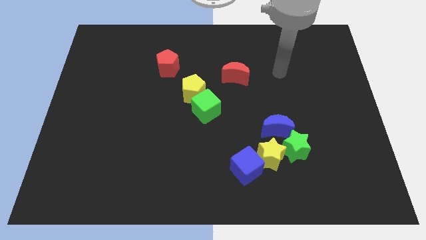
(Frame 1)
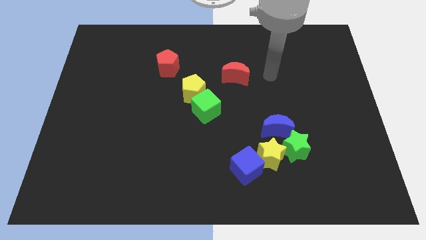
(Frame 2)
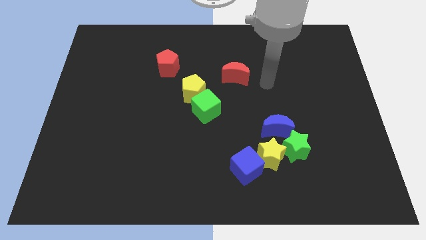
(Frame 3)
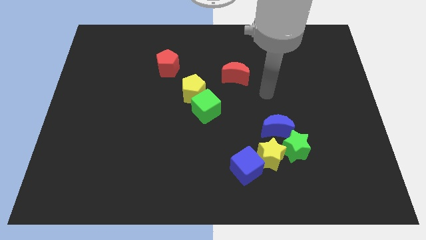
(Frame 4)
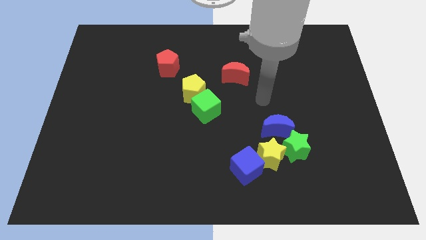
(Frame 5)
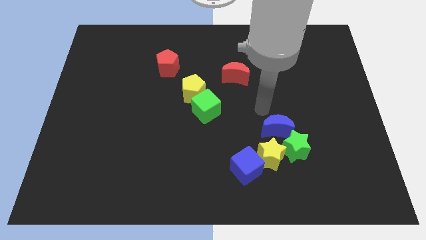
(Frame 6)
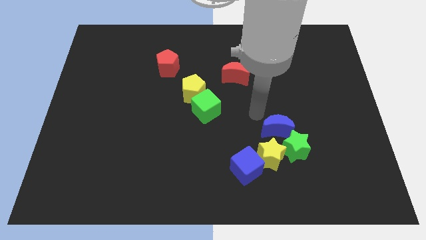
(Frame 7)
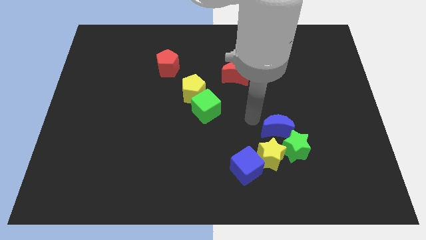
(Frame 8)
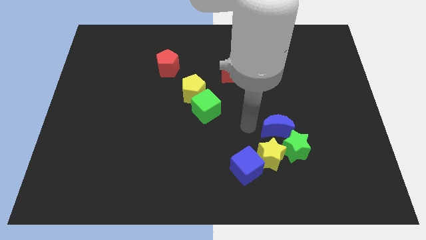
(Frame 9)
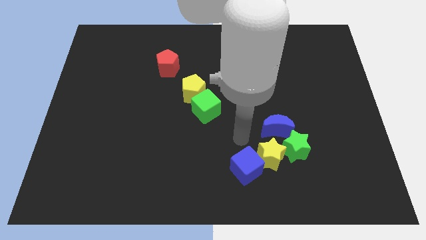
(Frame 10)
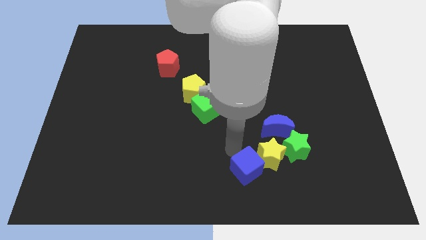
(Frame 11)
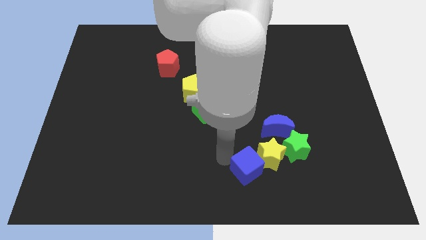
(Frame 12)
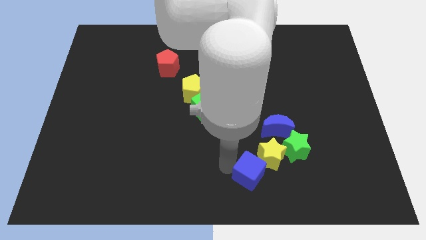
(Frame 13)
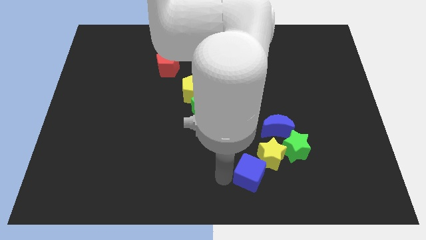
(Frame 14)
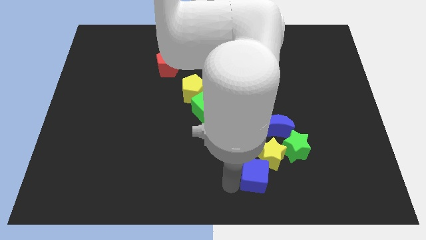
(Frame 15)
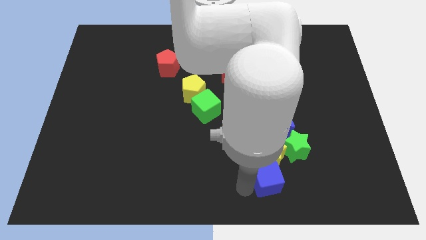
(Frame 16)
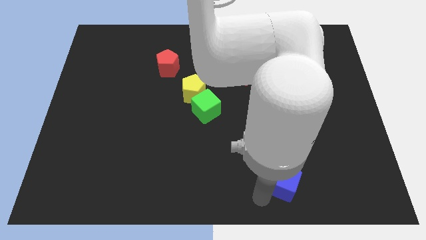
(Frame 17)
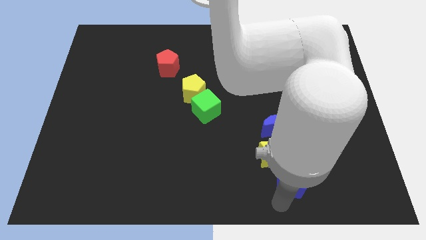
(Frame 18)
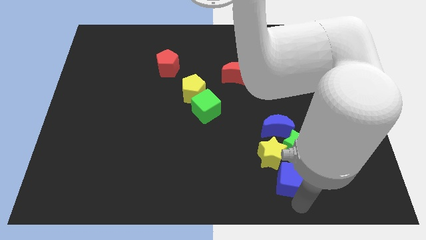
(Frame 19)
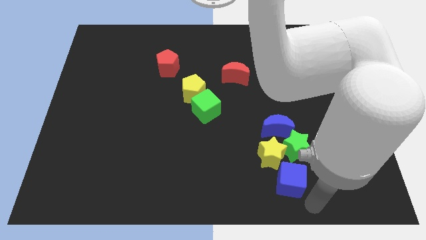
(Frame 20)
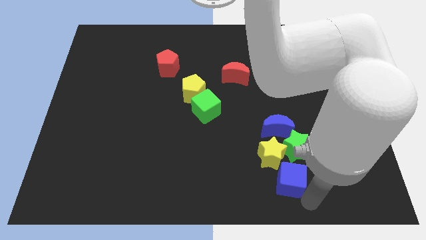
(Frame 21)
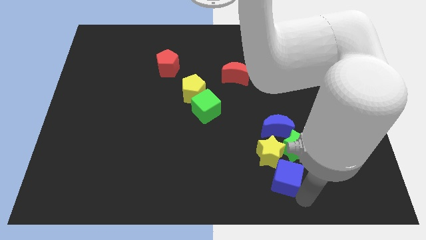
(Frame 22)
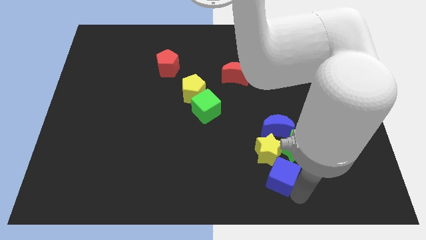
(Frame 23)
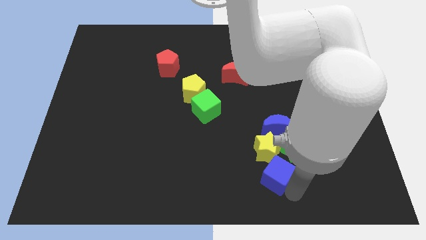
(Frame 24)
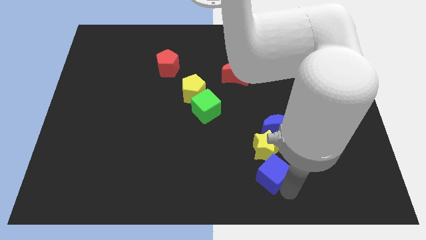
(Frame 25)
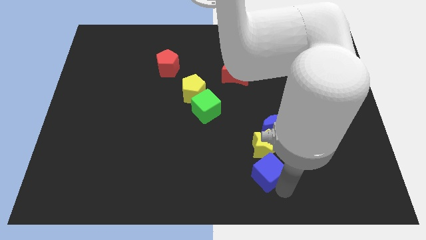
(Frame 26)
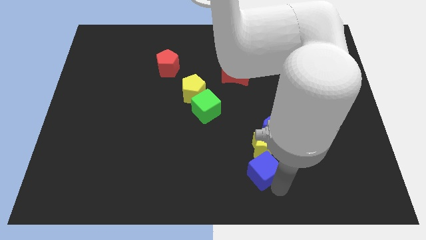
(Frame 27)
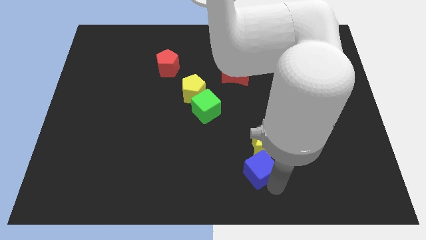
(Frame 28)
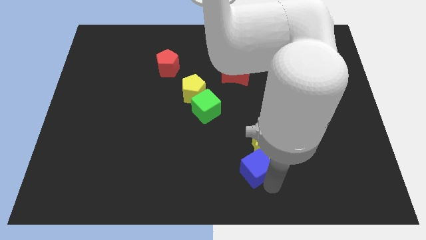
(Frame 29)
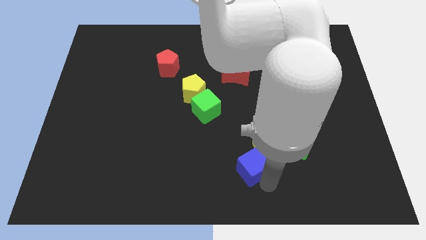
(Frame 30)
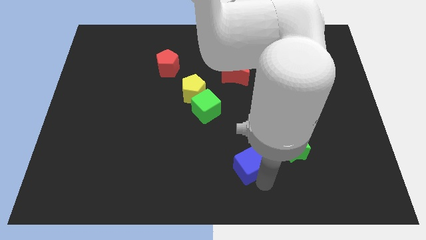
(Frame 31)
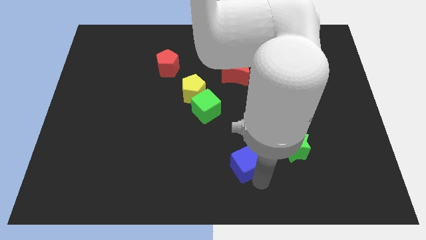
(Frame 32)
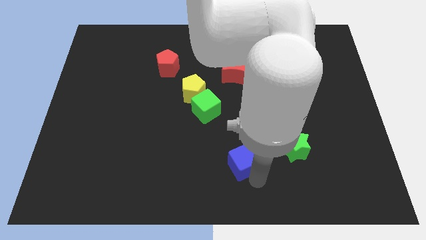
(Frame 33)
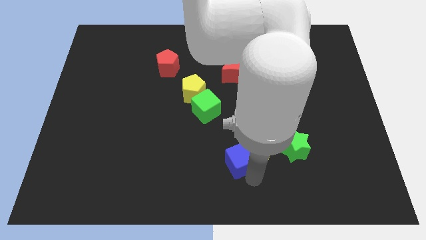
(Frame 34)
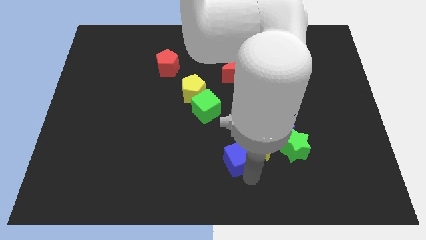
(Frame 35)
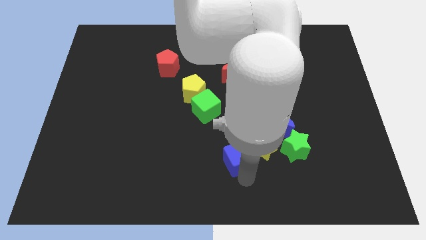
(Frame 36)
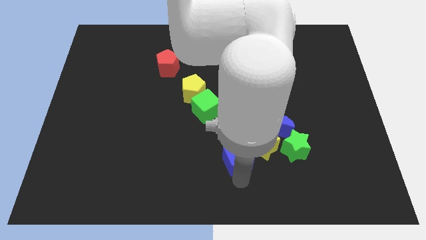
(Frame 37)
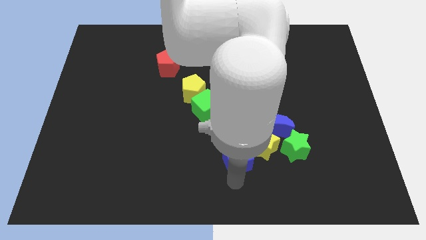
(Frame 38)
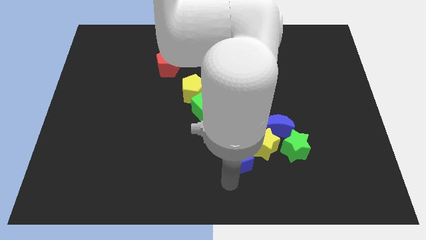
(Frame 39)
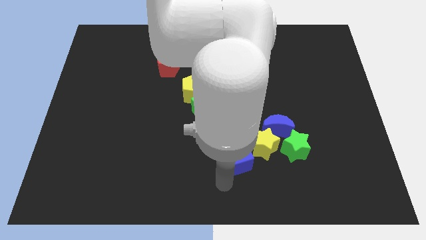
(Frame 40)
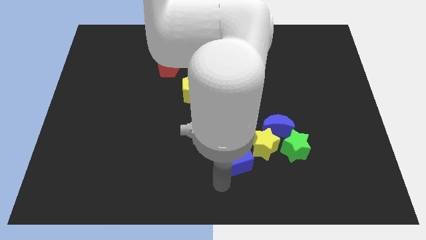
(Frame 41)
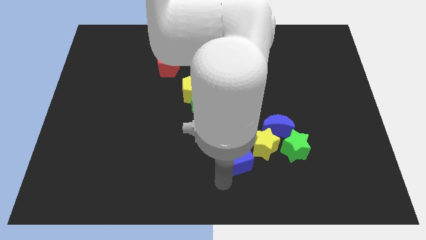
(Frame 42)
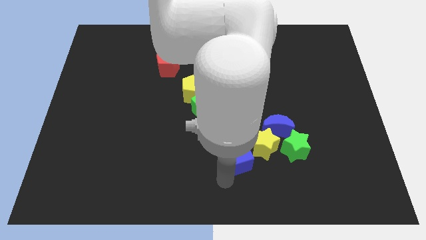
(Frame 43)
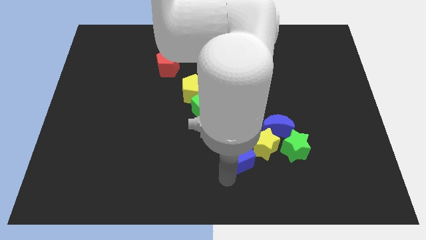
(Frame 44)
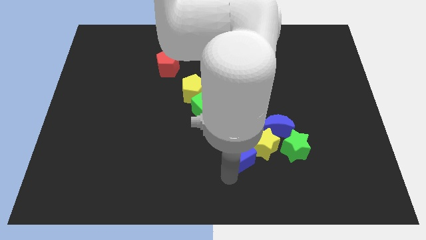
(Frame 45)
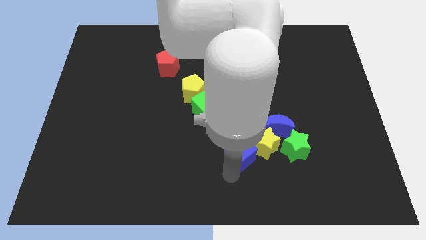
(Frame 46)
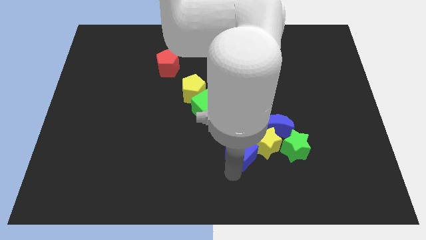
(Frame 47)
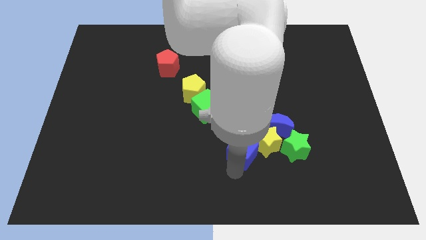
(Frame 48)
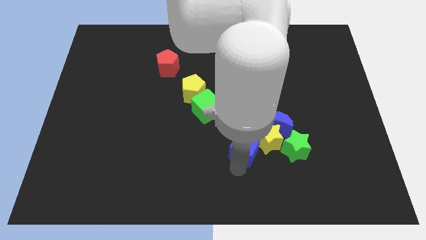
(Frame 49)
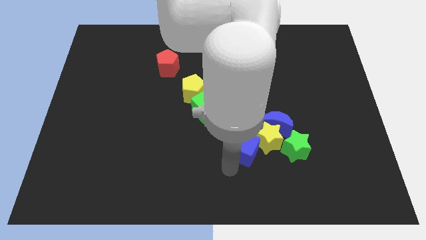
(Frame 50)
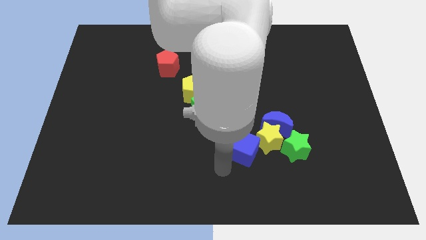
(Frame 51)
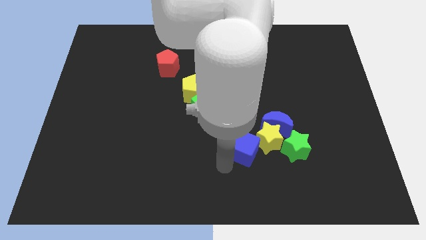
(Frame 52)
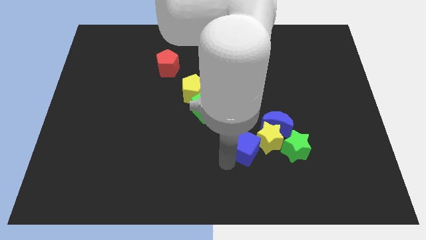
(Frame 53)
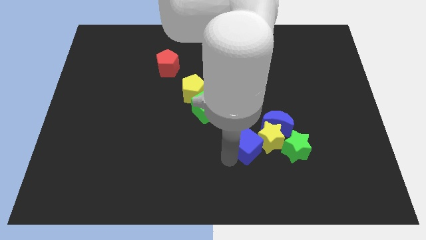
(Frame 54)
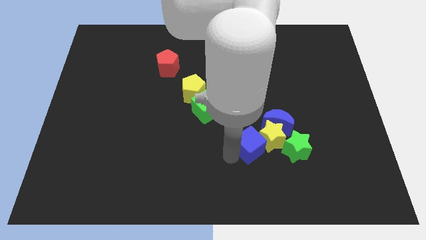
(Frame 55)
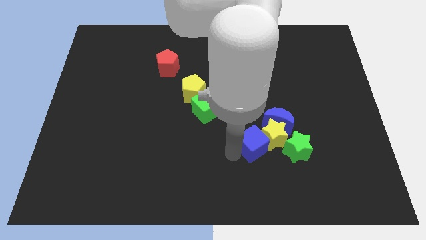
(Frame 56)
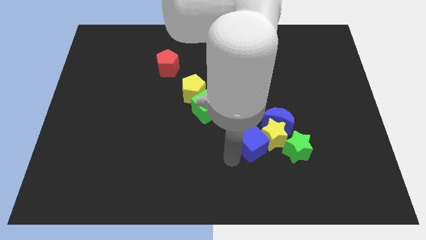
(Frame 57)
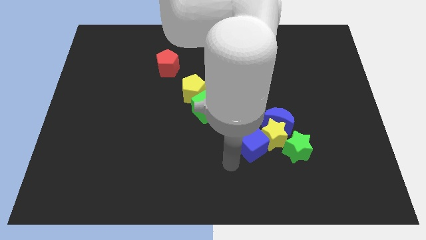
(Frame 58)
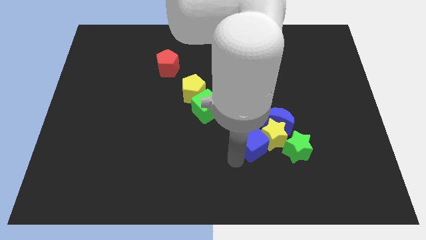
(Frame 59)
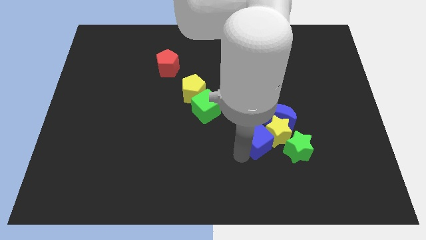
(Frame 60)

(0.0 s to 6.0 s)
move the blue cube diagonally up and to the left of the green star

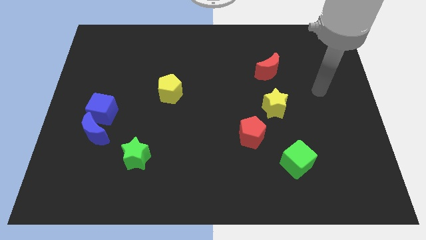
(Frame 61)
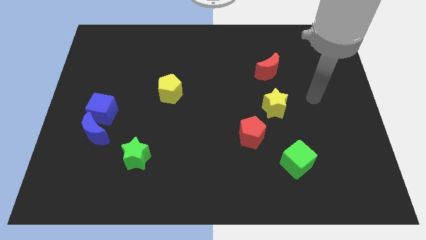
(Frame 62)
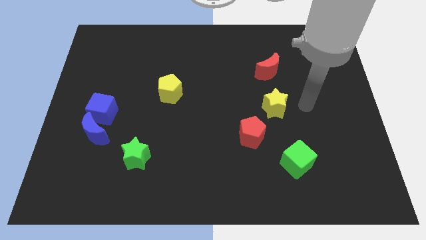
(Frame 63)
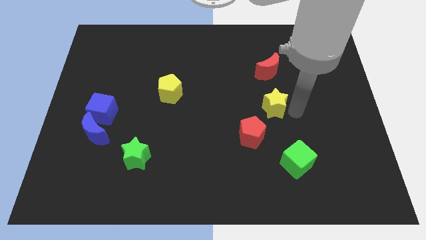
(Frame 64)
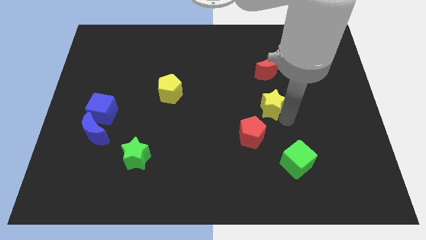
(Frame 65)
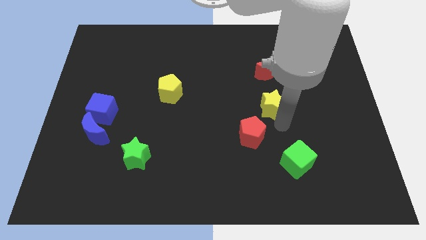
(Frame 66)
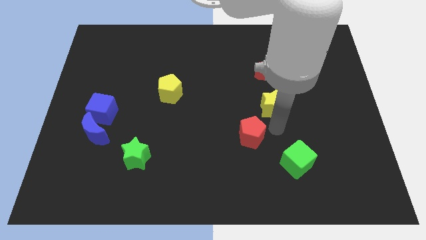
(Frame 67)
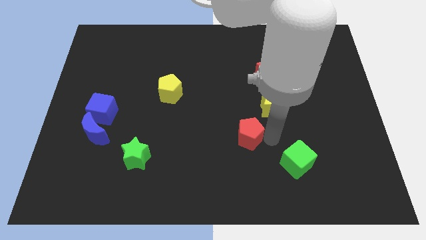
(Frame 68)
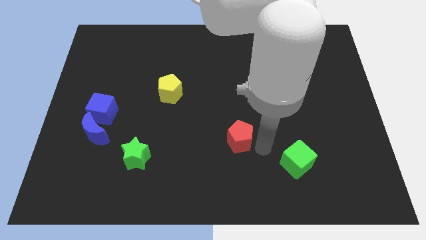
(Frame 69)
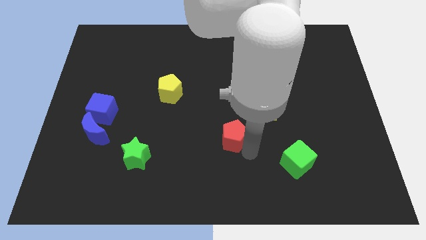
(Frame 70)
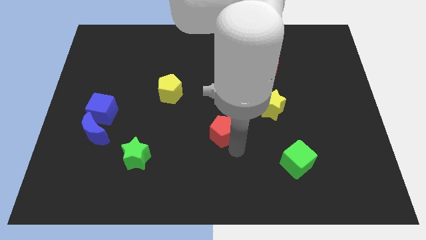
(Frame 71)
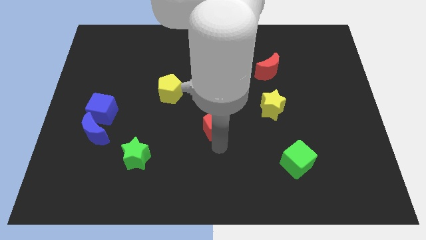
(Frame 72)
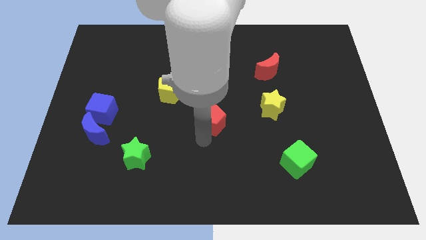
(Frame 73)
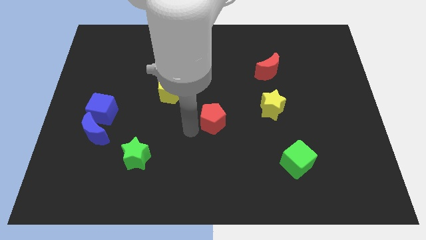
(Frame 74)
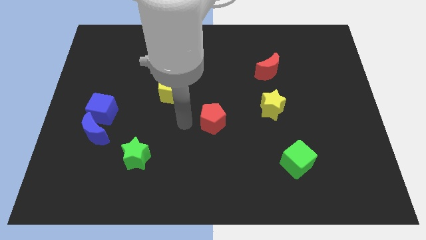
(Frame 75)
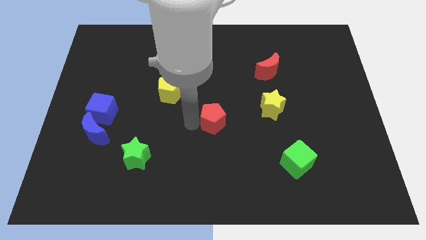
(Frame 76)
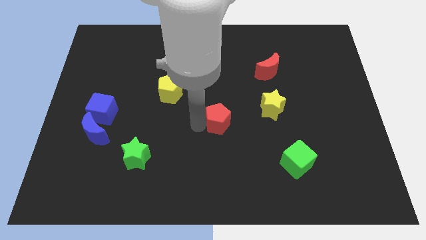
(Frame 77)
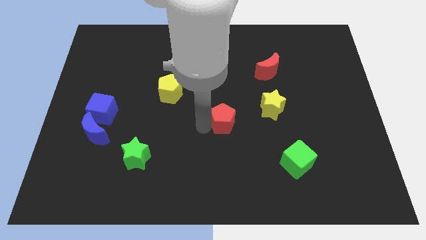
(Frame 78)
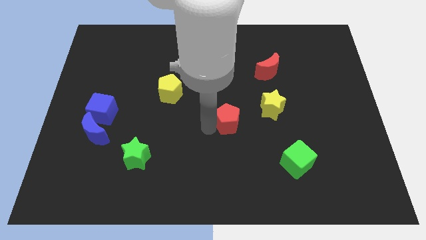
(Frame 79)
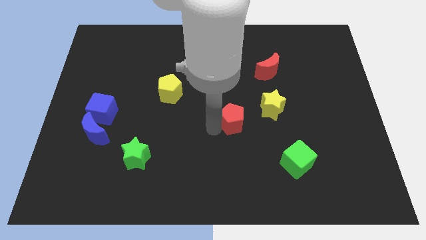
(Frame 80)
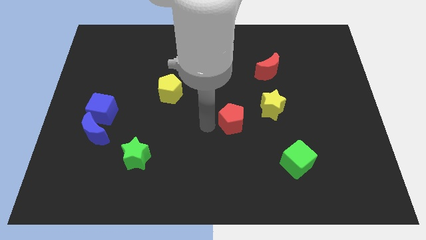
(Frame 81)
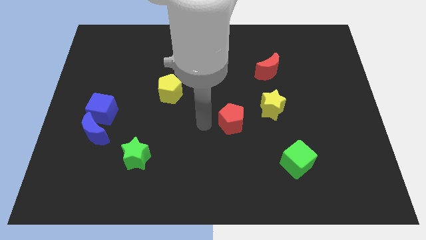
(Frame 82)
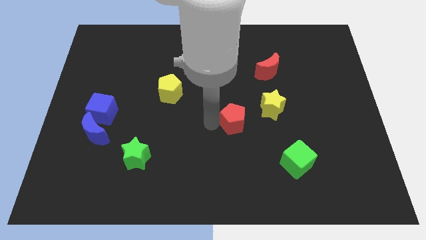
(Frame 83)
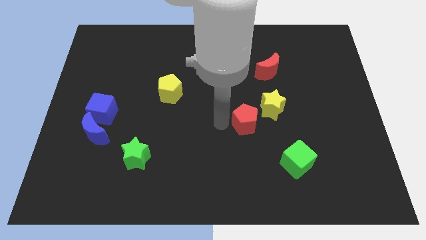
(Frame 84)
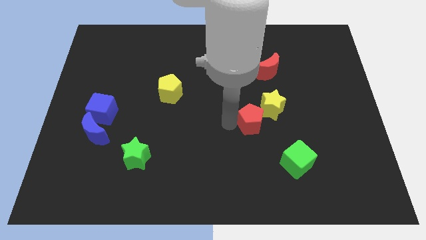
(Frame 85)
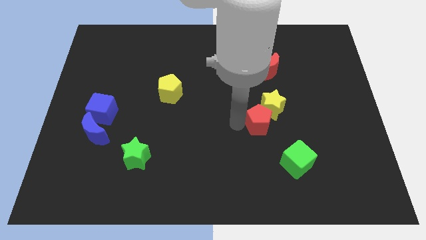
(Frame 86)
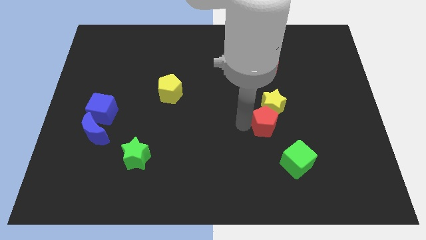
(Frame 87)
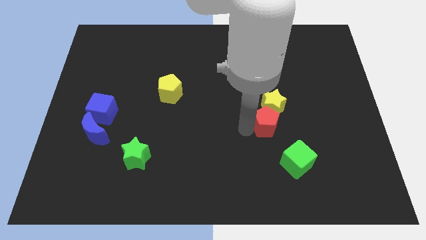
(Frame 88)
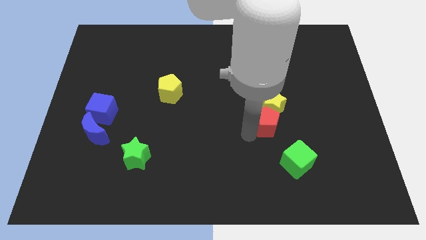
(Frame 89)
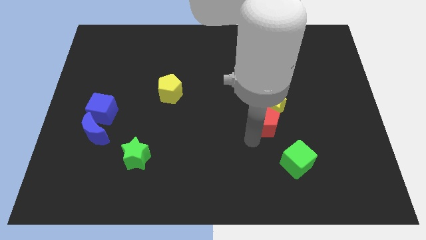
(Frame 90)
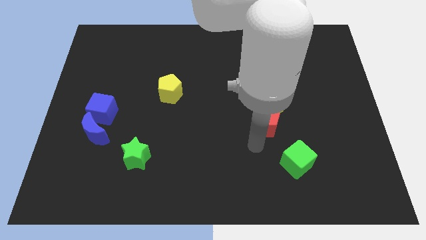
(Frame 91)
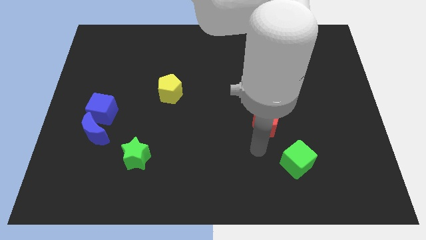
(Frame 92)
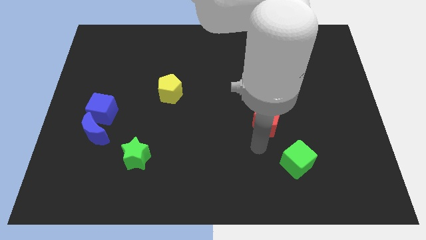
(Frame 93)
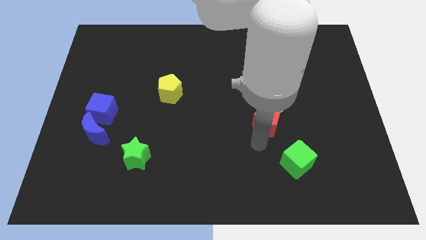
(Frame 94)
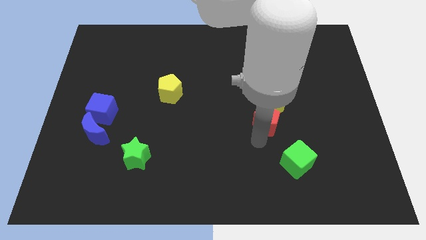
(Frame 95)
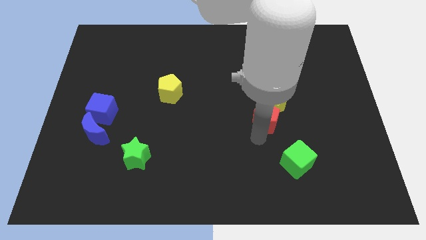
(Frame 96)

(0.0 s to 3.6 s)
slide the red pentagon to the bottom side of the red moon
